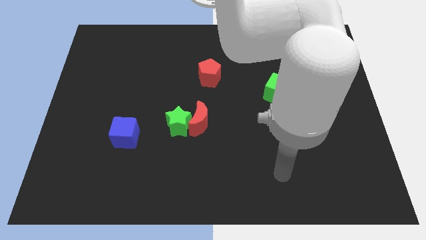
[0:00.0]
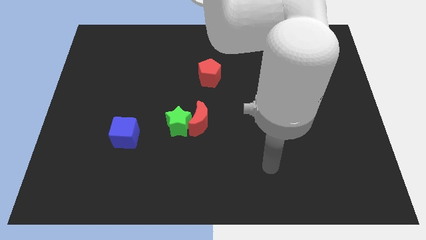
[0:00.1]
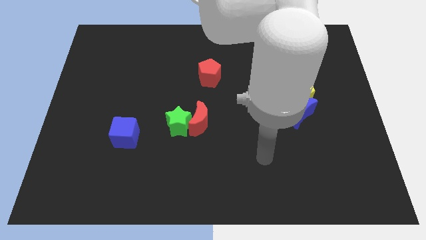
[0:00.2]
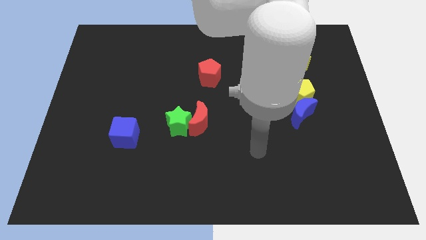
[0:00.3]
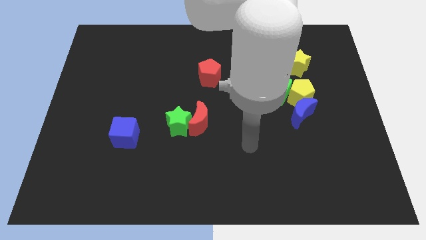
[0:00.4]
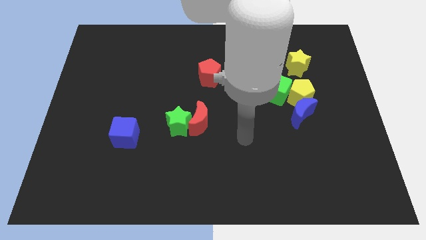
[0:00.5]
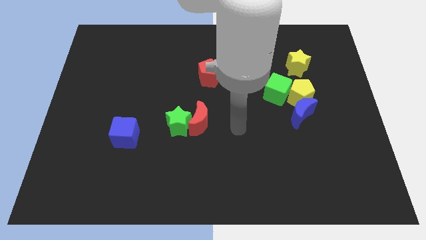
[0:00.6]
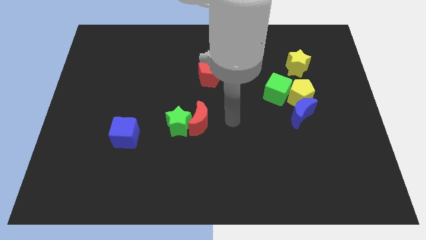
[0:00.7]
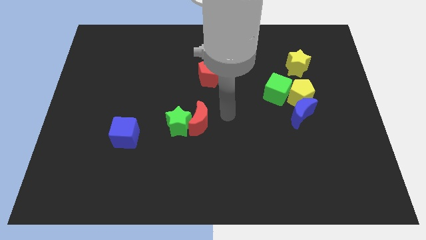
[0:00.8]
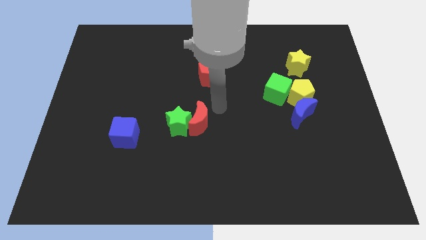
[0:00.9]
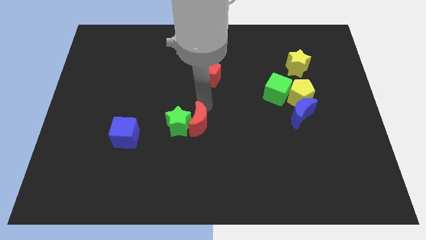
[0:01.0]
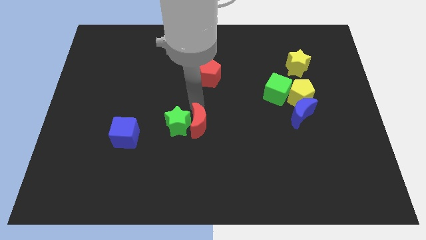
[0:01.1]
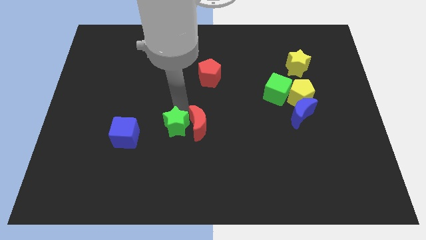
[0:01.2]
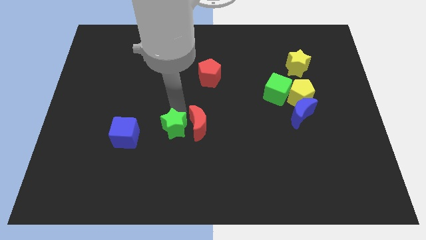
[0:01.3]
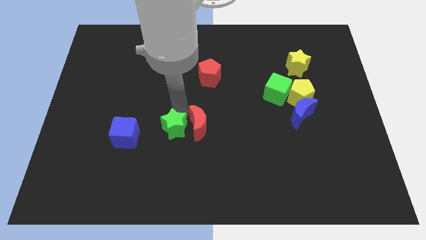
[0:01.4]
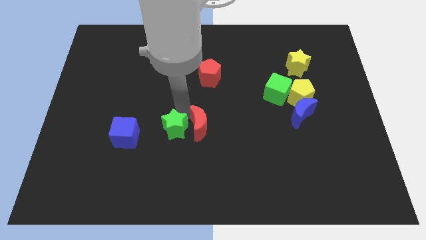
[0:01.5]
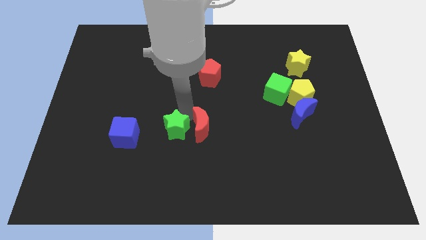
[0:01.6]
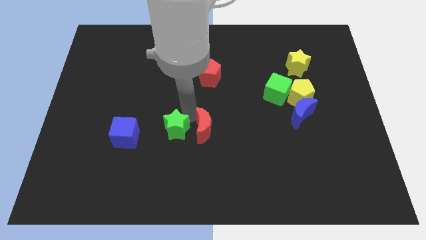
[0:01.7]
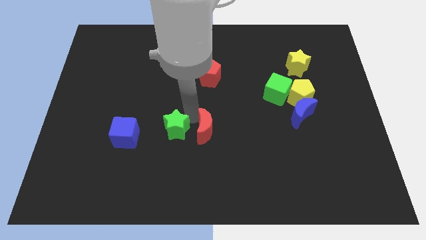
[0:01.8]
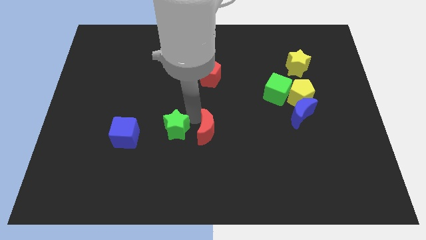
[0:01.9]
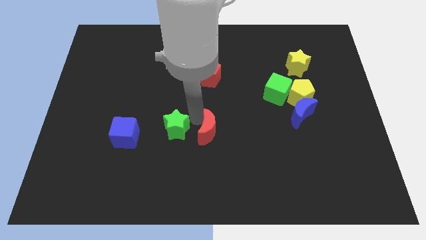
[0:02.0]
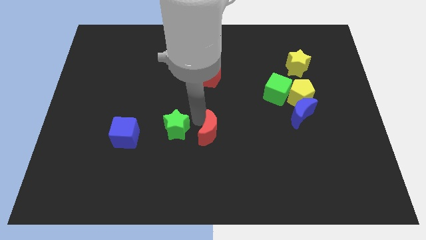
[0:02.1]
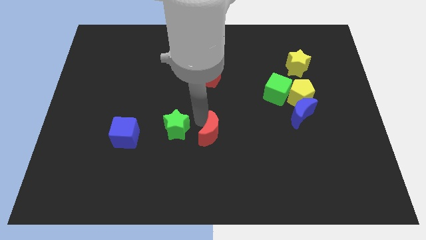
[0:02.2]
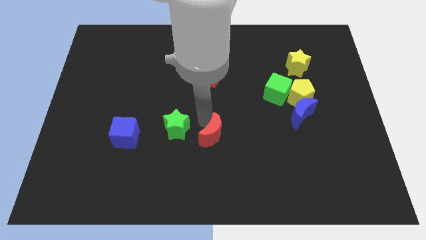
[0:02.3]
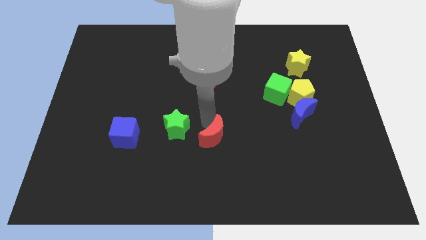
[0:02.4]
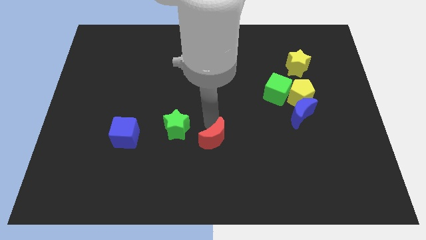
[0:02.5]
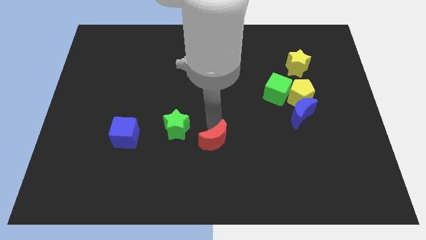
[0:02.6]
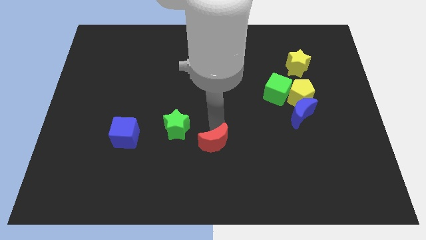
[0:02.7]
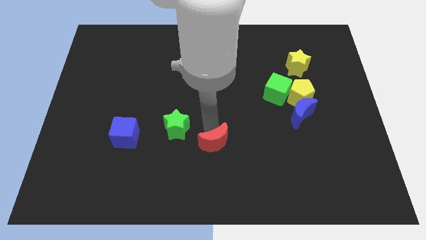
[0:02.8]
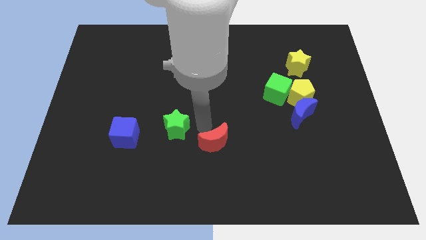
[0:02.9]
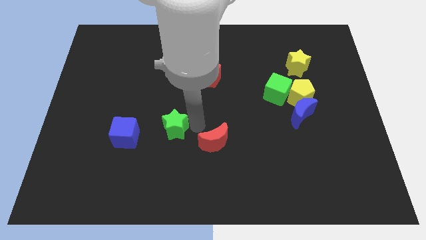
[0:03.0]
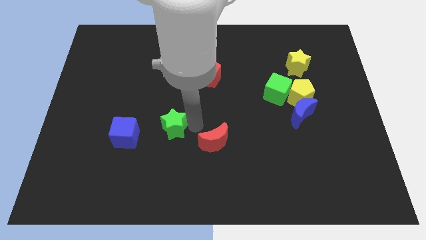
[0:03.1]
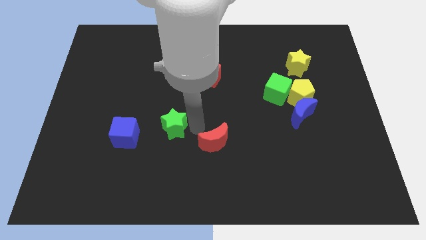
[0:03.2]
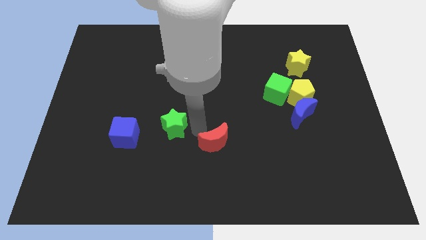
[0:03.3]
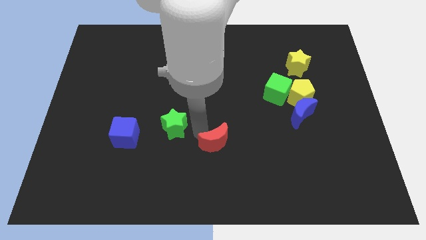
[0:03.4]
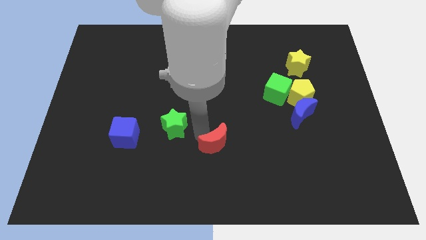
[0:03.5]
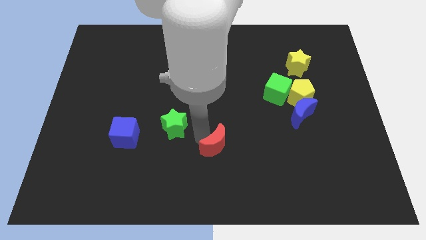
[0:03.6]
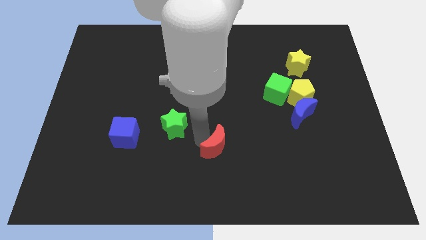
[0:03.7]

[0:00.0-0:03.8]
push the red moon diagonally downwards and right a little bit

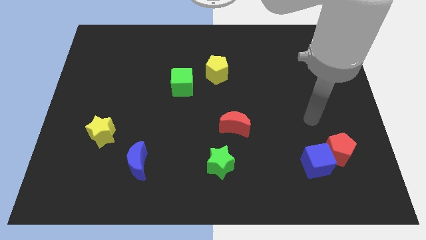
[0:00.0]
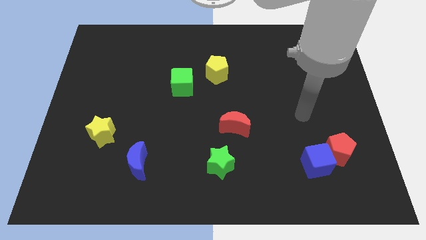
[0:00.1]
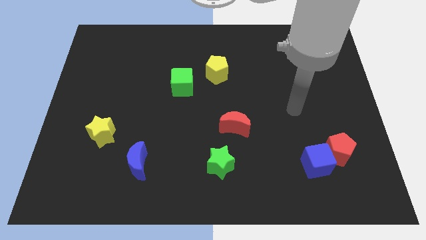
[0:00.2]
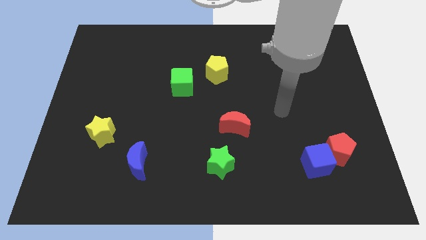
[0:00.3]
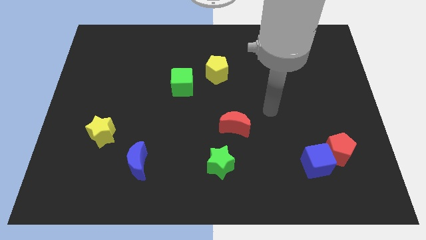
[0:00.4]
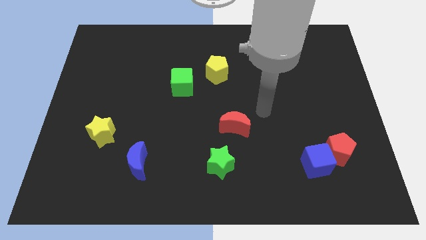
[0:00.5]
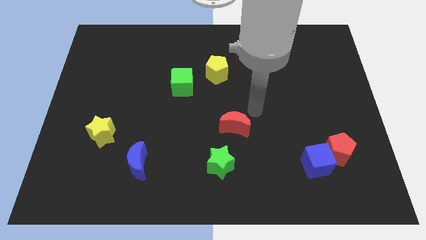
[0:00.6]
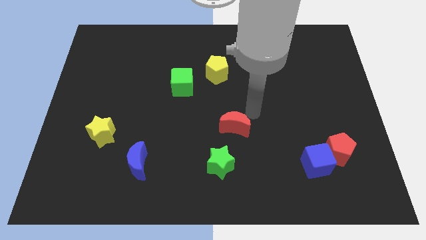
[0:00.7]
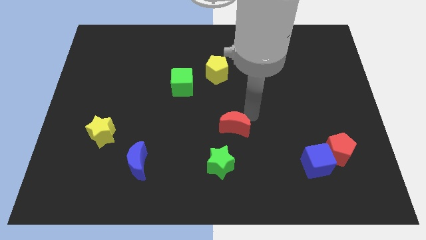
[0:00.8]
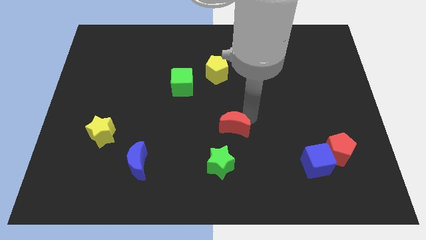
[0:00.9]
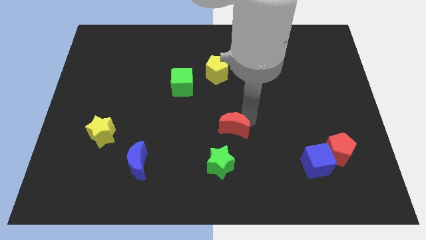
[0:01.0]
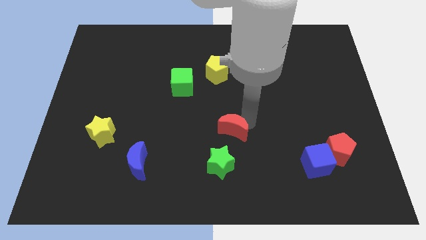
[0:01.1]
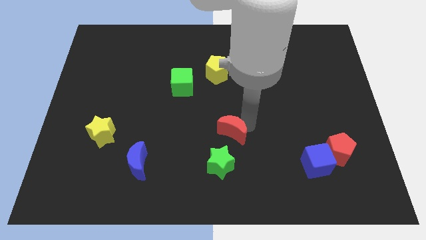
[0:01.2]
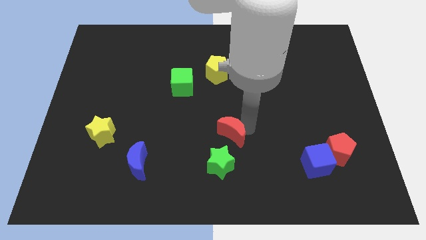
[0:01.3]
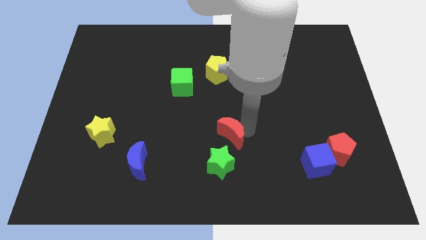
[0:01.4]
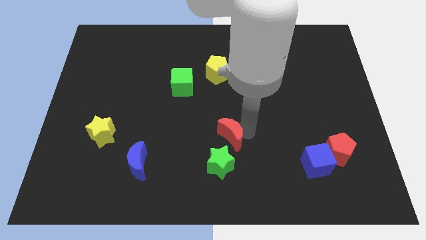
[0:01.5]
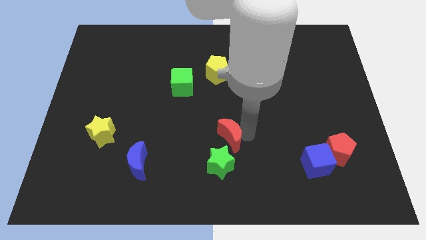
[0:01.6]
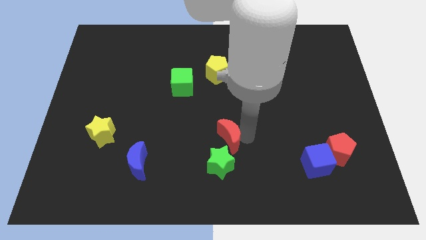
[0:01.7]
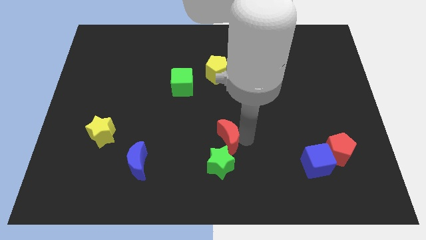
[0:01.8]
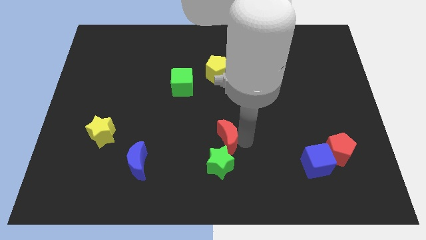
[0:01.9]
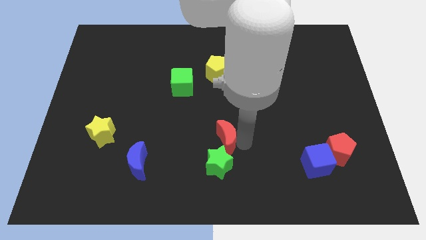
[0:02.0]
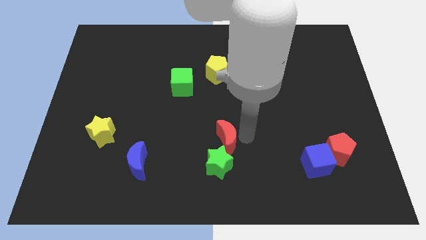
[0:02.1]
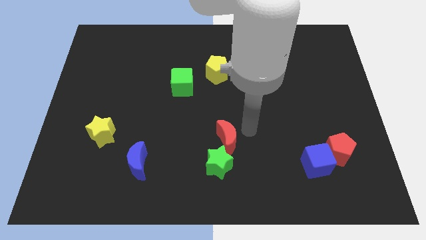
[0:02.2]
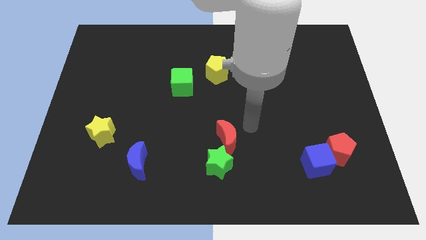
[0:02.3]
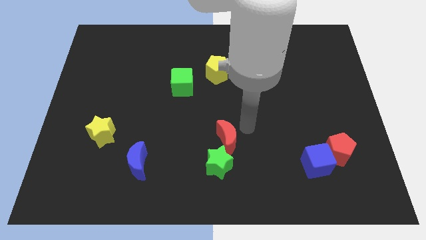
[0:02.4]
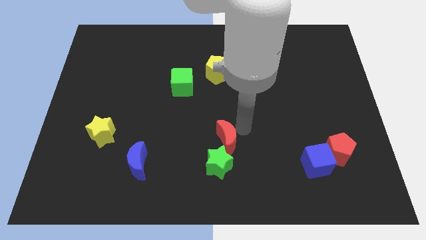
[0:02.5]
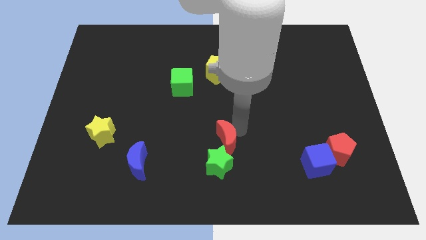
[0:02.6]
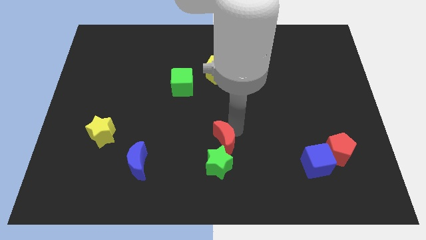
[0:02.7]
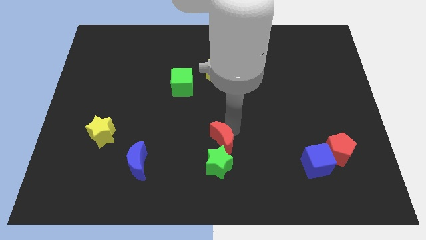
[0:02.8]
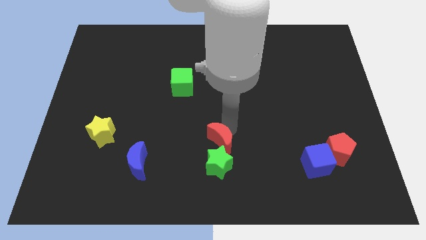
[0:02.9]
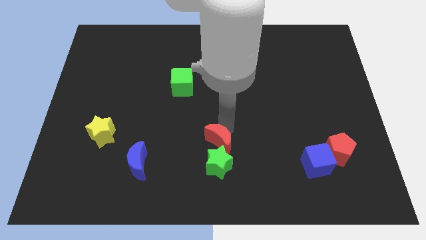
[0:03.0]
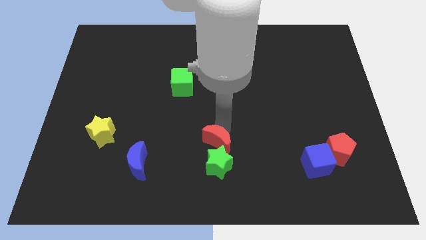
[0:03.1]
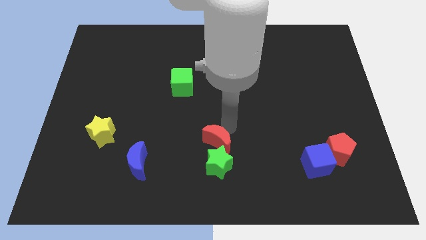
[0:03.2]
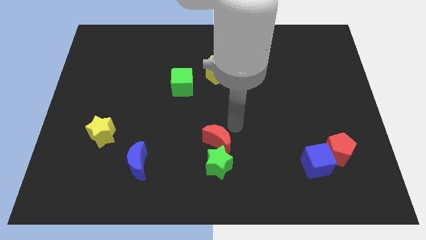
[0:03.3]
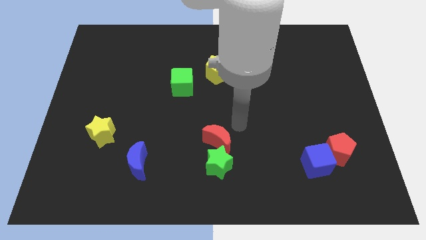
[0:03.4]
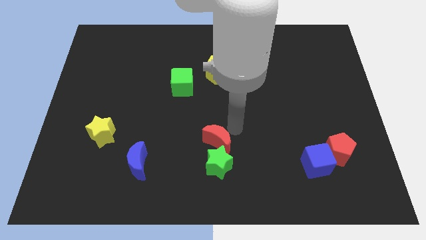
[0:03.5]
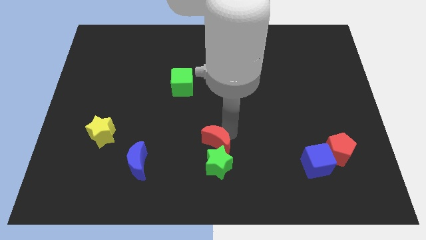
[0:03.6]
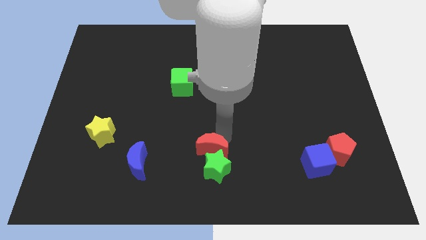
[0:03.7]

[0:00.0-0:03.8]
slightly push the red moon down and then left

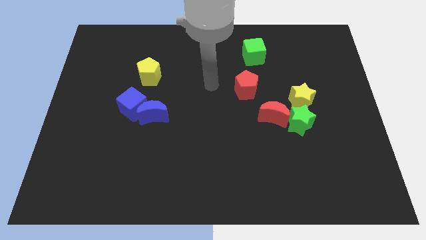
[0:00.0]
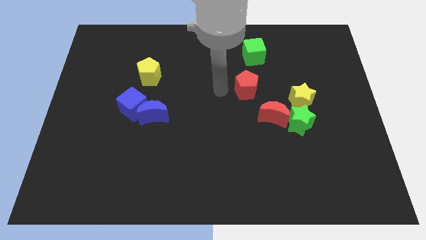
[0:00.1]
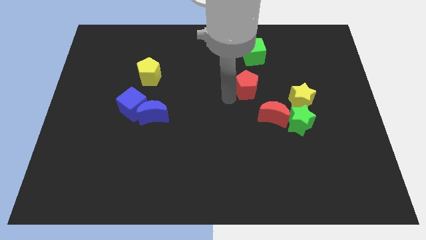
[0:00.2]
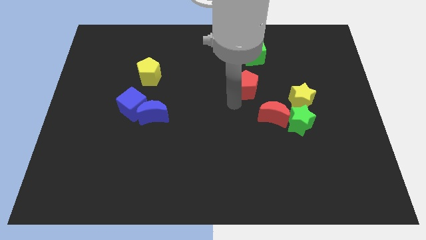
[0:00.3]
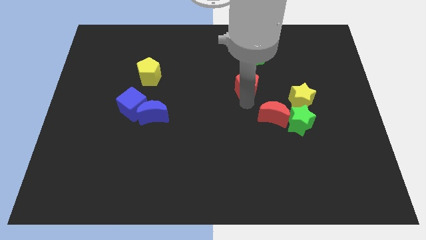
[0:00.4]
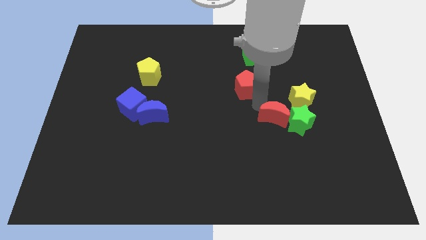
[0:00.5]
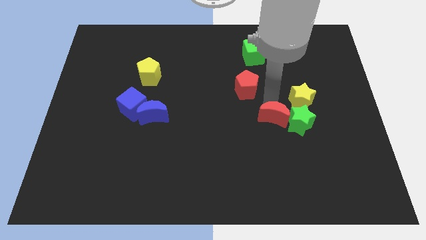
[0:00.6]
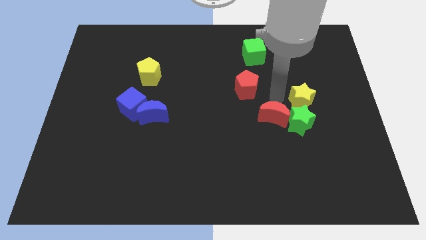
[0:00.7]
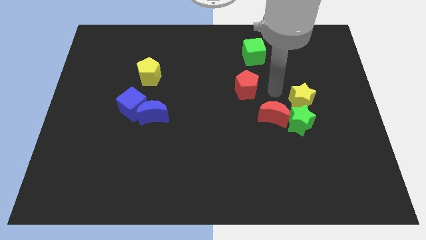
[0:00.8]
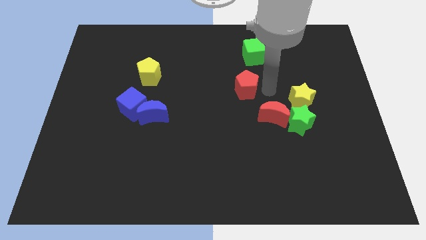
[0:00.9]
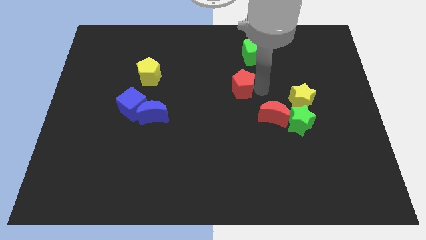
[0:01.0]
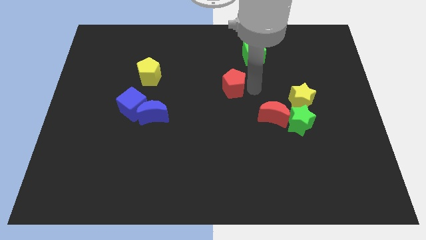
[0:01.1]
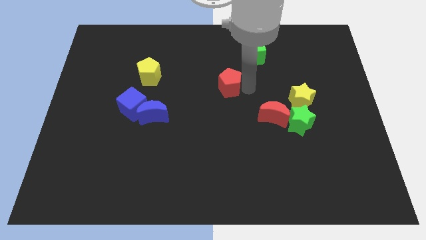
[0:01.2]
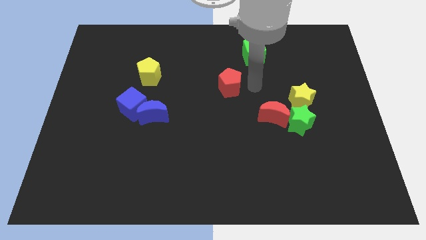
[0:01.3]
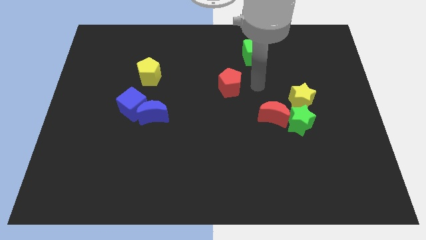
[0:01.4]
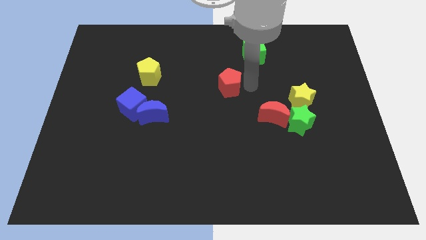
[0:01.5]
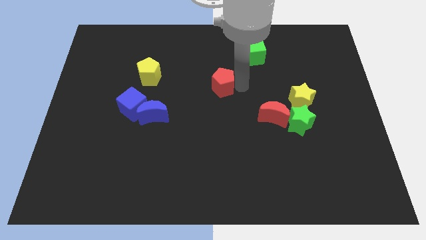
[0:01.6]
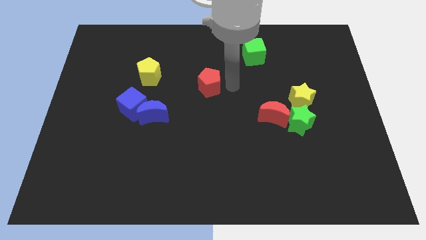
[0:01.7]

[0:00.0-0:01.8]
slightly move the red pentagon left
